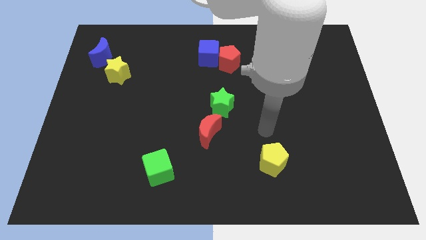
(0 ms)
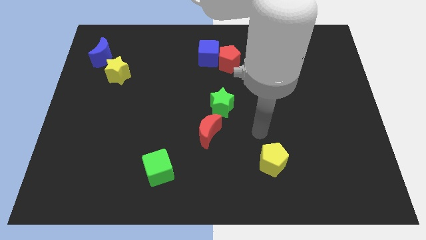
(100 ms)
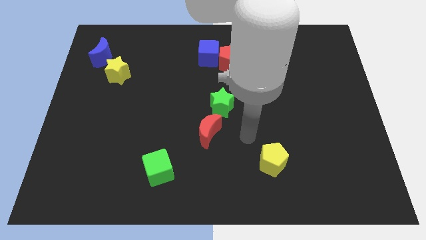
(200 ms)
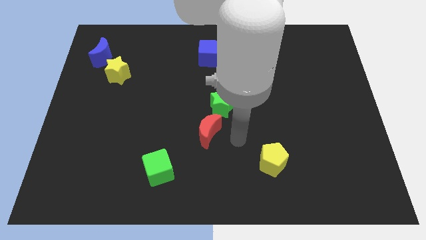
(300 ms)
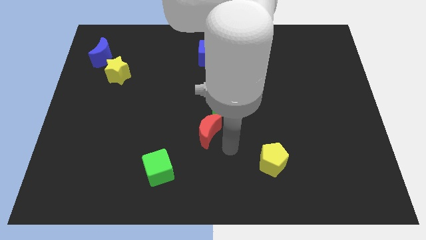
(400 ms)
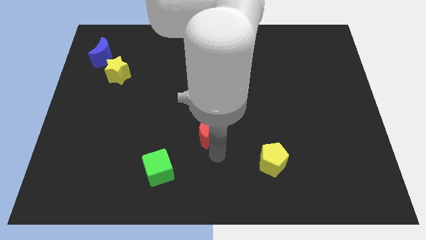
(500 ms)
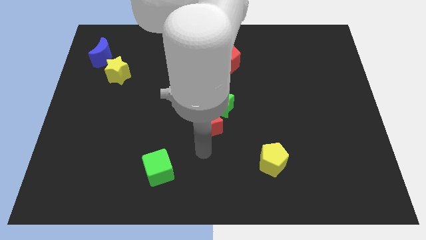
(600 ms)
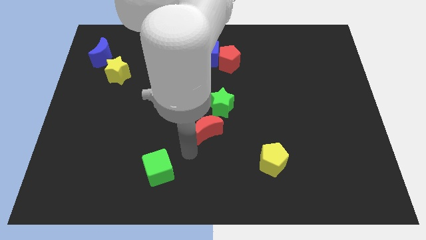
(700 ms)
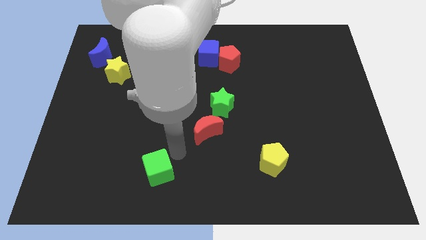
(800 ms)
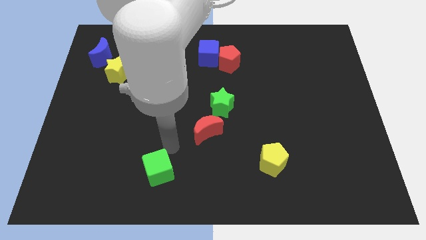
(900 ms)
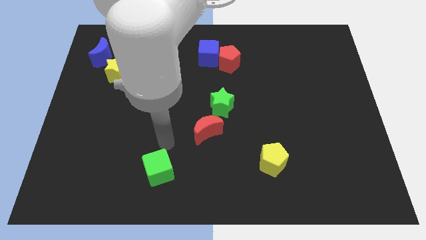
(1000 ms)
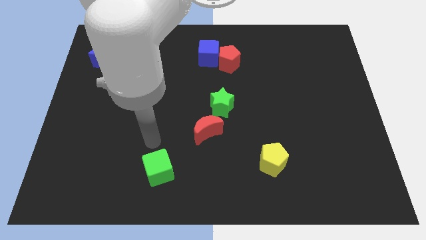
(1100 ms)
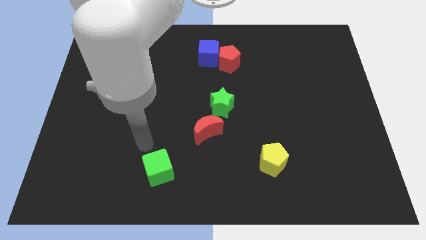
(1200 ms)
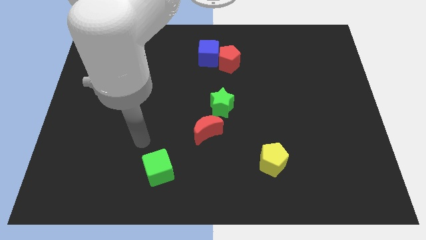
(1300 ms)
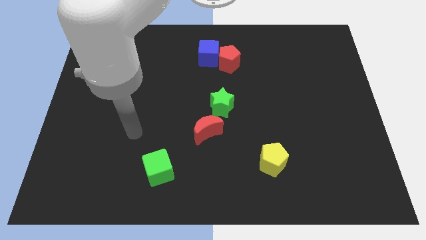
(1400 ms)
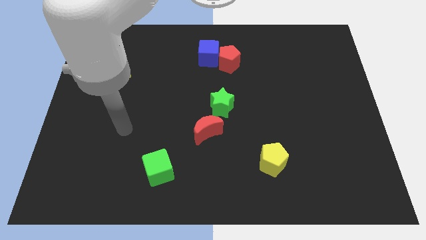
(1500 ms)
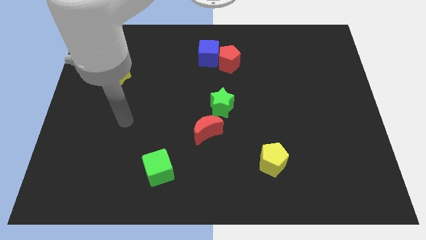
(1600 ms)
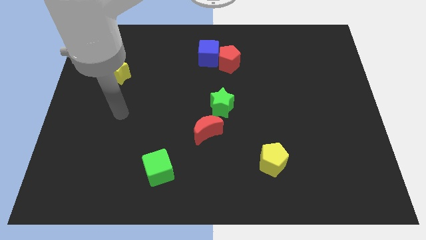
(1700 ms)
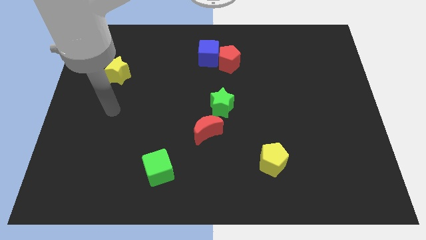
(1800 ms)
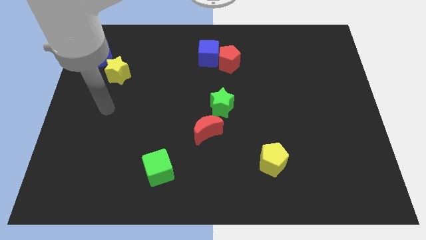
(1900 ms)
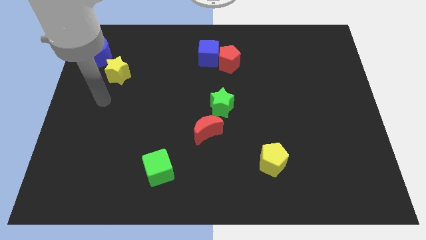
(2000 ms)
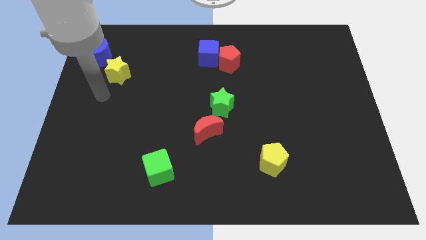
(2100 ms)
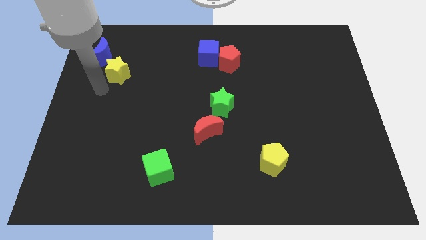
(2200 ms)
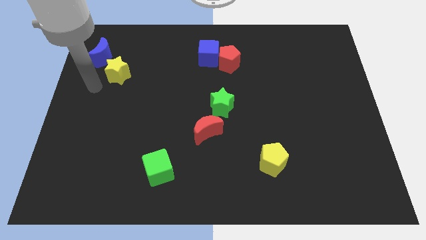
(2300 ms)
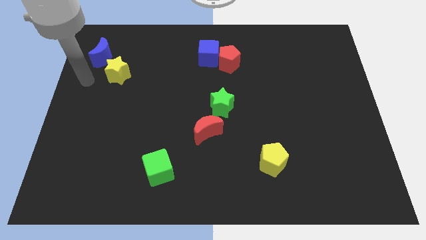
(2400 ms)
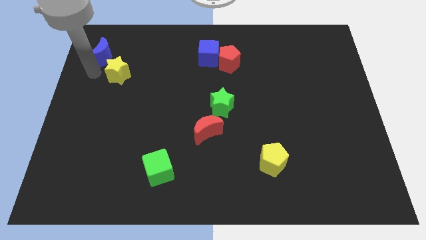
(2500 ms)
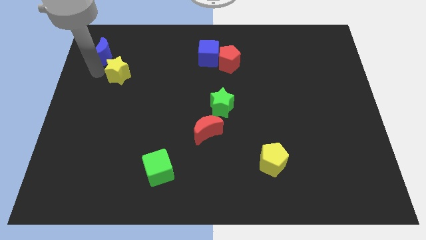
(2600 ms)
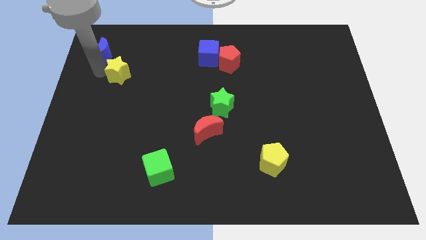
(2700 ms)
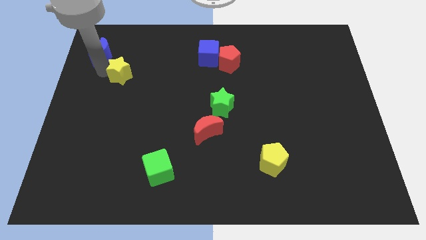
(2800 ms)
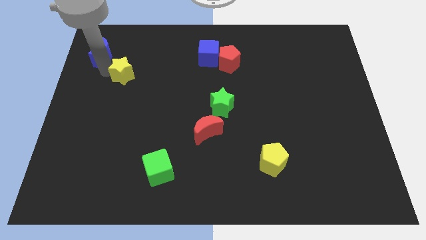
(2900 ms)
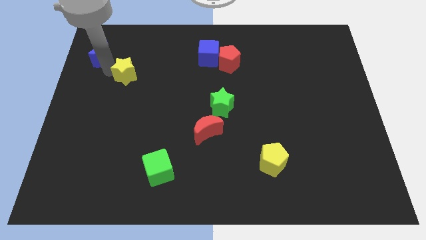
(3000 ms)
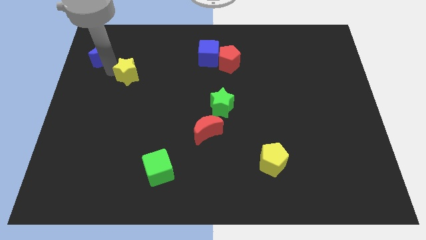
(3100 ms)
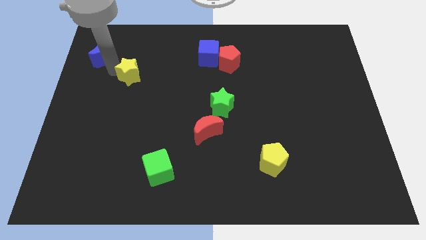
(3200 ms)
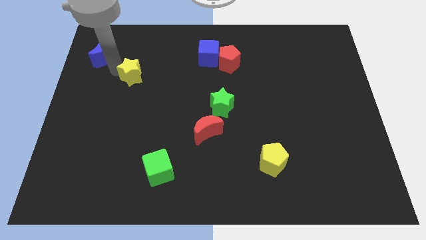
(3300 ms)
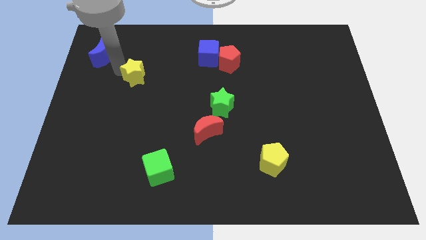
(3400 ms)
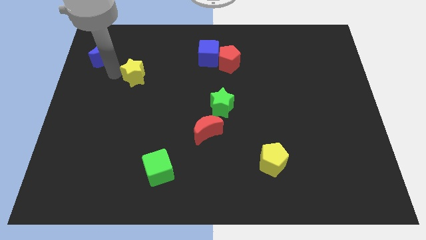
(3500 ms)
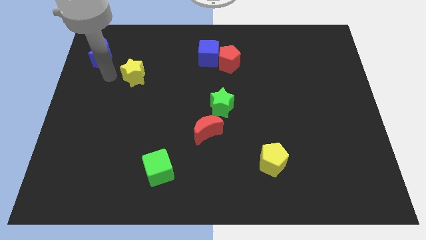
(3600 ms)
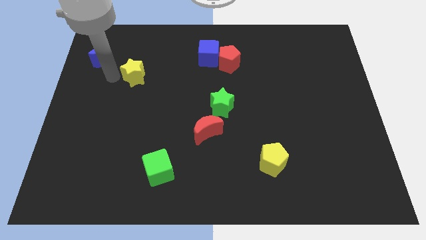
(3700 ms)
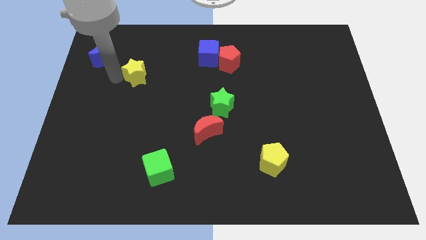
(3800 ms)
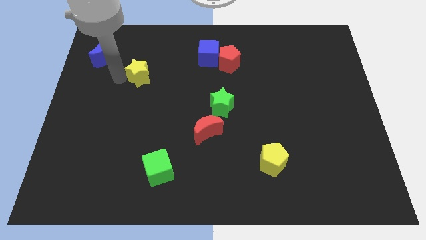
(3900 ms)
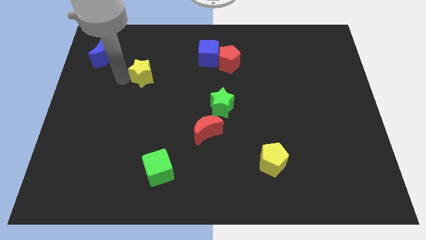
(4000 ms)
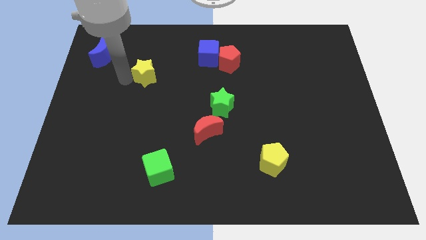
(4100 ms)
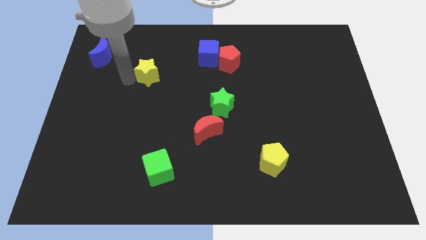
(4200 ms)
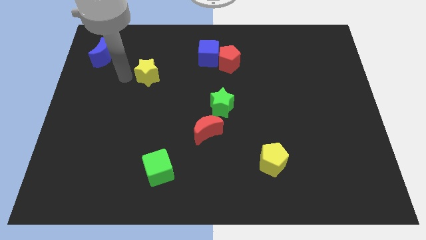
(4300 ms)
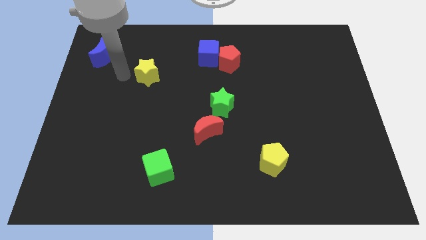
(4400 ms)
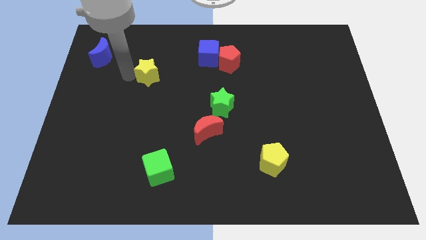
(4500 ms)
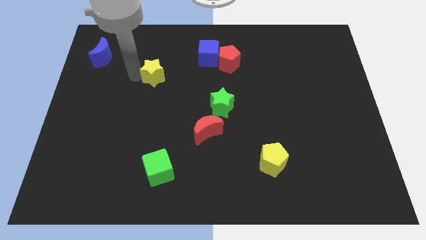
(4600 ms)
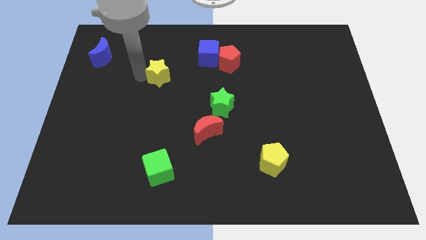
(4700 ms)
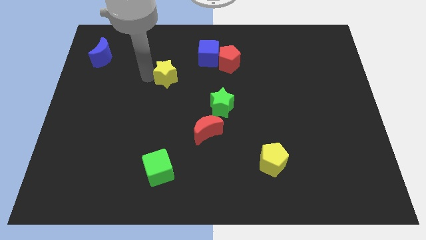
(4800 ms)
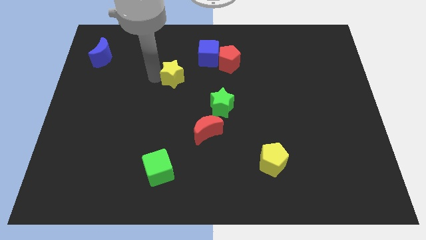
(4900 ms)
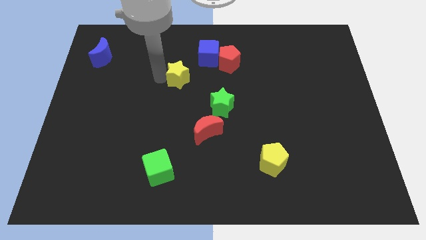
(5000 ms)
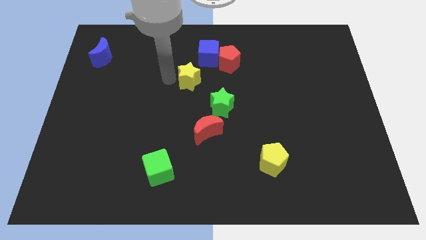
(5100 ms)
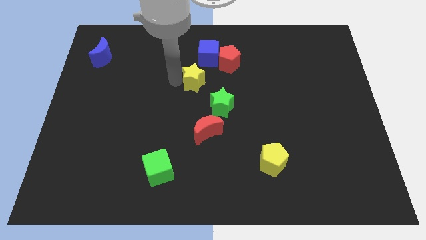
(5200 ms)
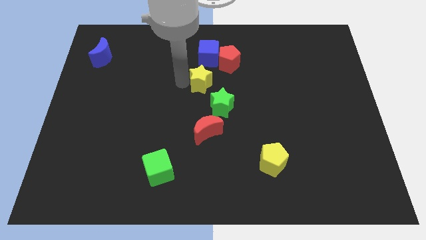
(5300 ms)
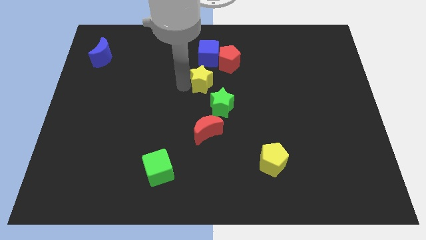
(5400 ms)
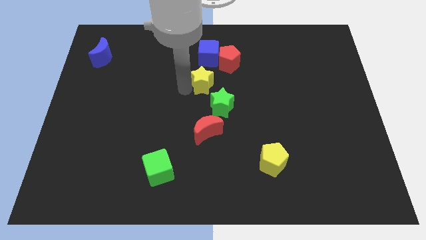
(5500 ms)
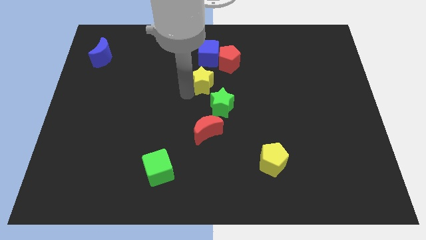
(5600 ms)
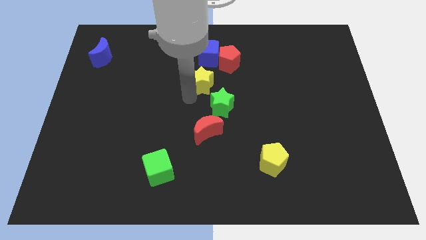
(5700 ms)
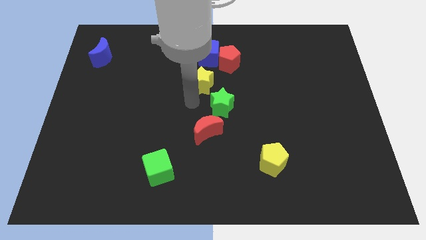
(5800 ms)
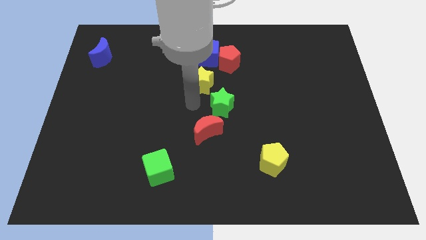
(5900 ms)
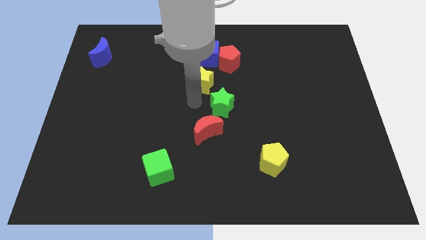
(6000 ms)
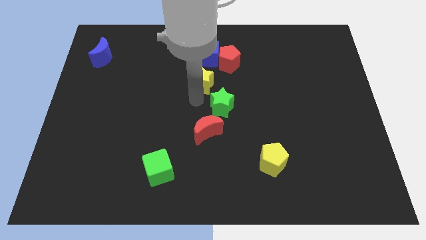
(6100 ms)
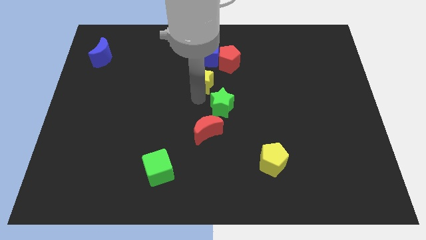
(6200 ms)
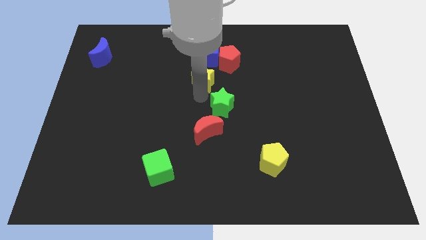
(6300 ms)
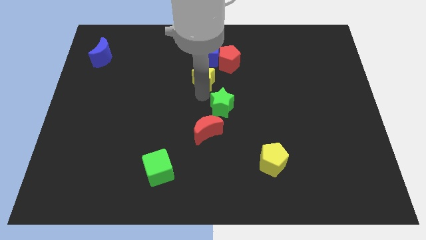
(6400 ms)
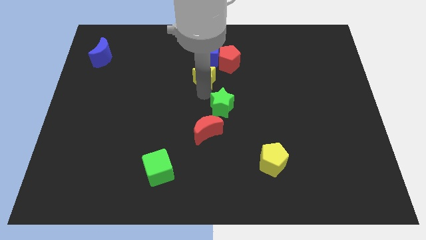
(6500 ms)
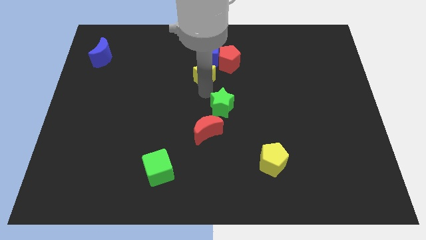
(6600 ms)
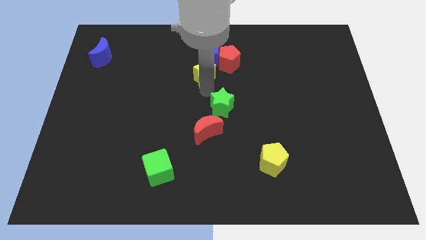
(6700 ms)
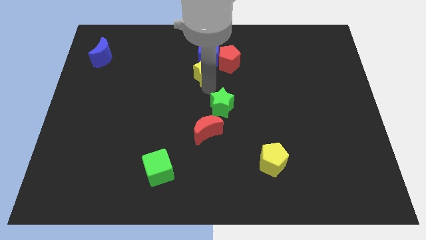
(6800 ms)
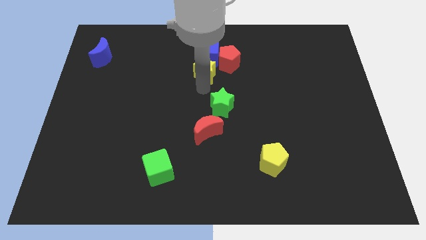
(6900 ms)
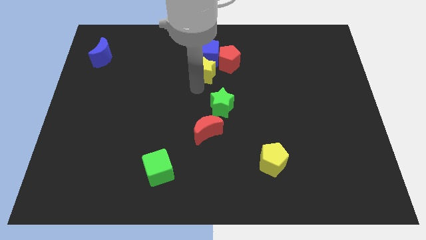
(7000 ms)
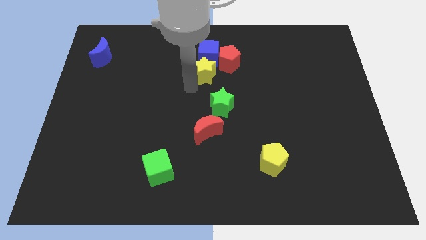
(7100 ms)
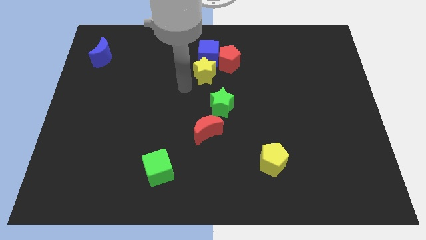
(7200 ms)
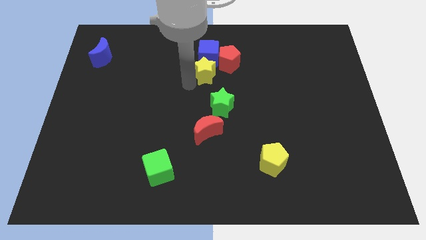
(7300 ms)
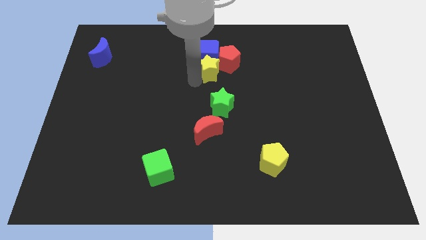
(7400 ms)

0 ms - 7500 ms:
slide the yellow star next to the red pentagon
